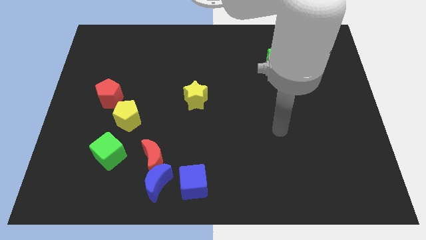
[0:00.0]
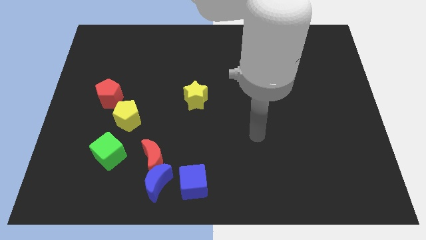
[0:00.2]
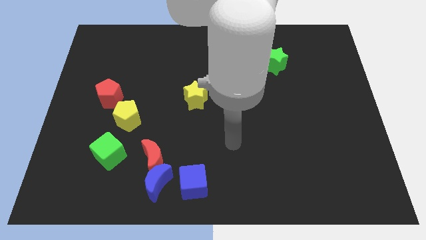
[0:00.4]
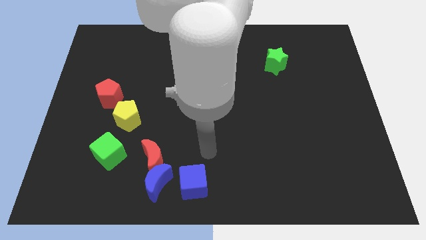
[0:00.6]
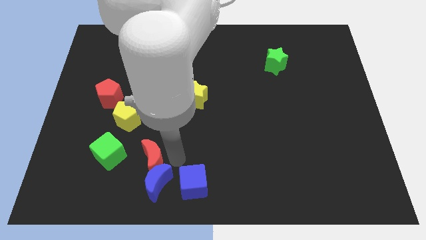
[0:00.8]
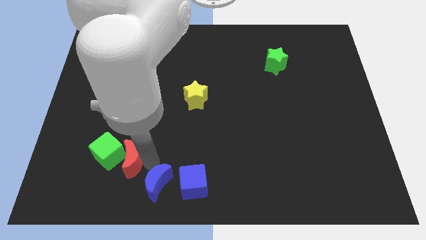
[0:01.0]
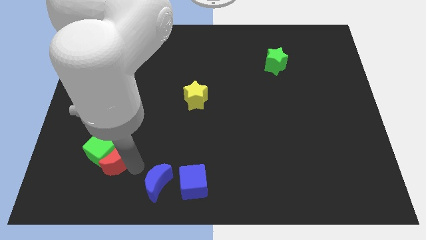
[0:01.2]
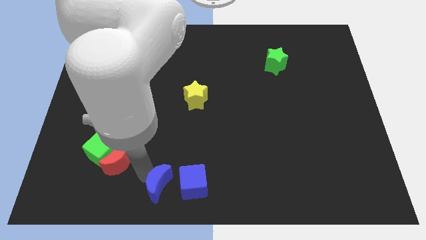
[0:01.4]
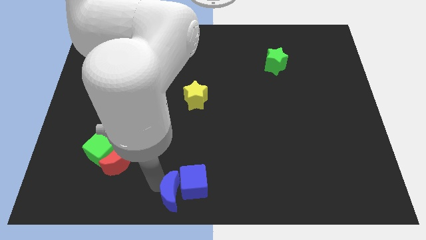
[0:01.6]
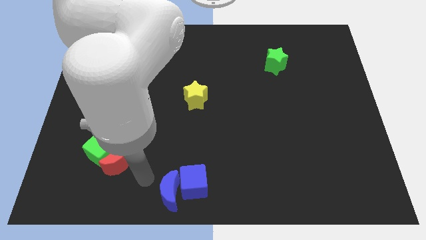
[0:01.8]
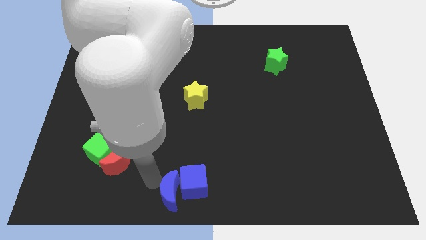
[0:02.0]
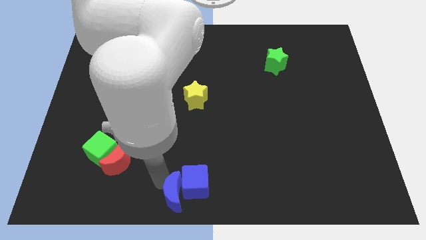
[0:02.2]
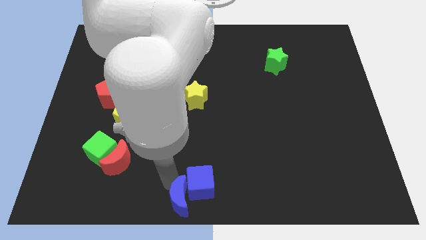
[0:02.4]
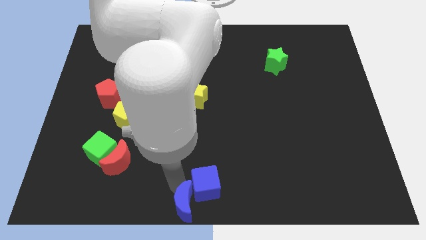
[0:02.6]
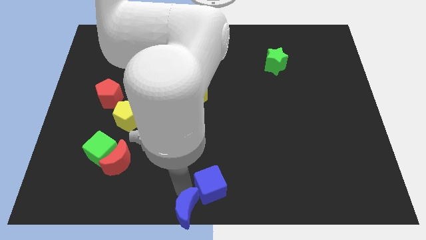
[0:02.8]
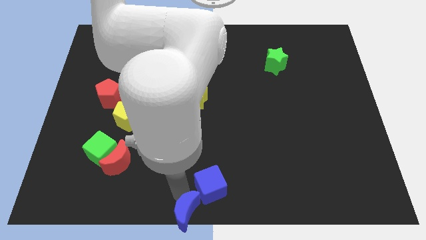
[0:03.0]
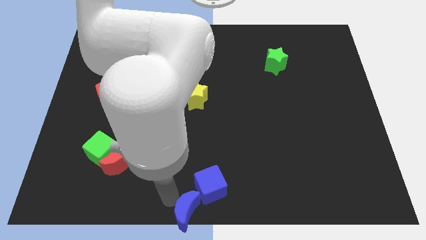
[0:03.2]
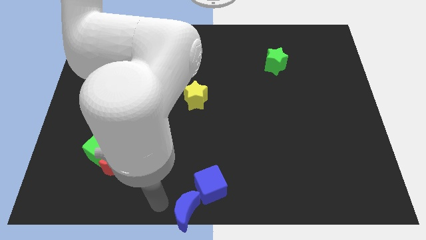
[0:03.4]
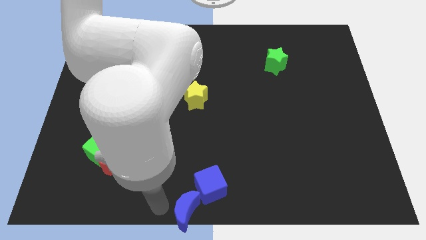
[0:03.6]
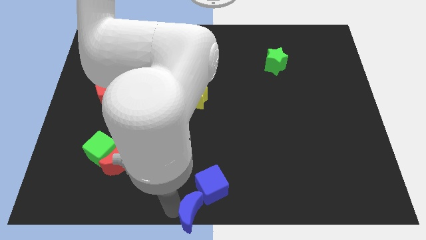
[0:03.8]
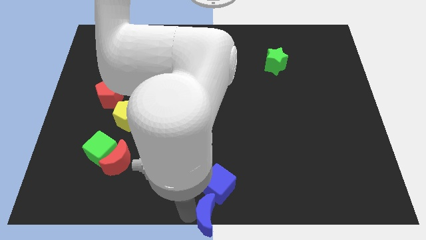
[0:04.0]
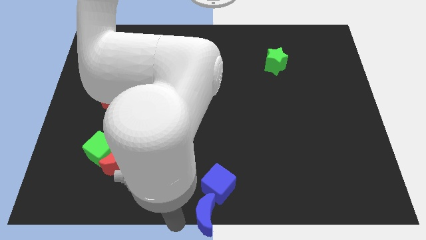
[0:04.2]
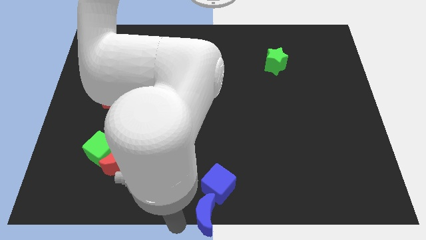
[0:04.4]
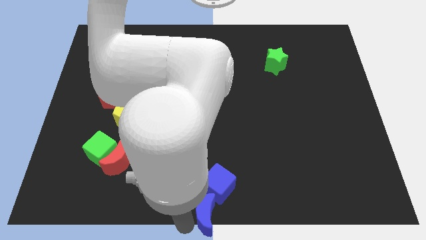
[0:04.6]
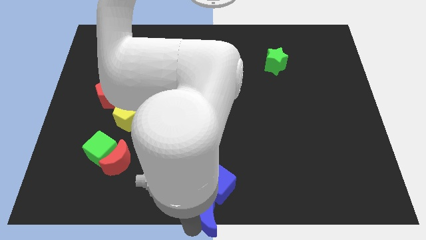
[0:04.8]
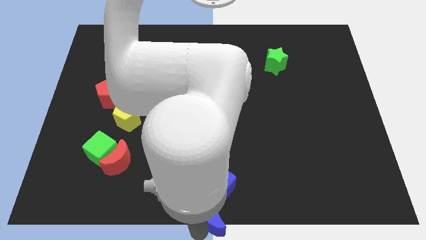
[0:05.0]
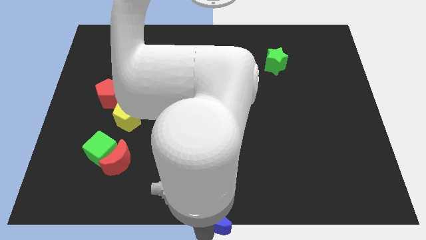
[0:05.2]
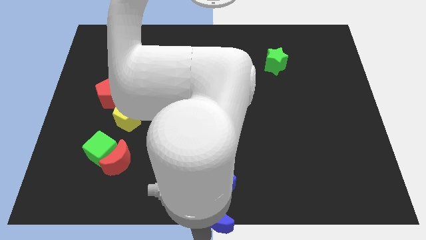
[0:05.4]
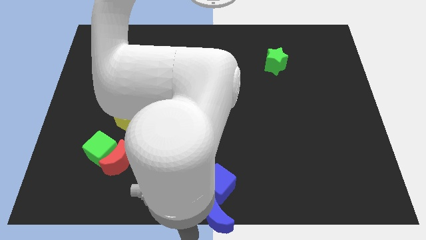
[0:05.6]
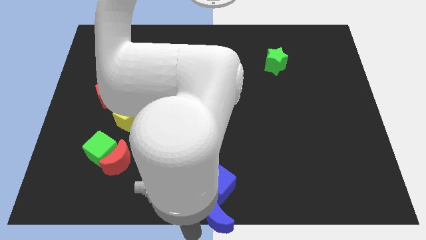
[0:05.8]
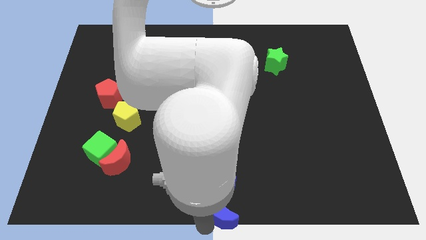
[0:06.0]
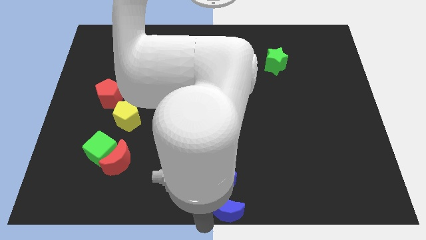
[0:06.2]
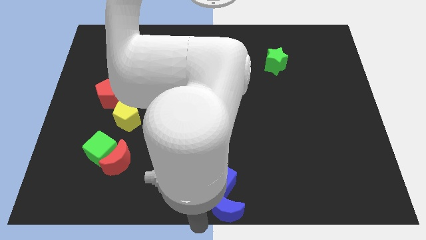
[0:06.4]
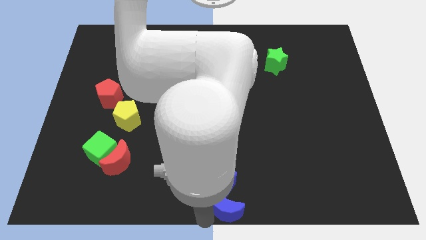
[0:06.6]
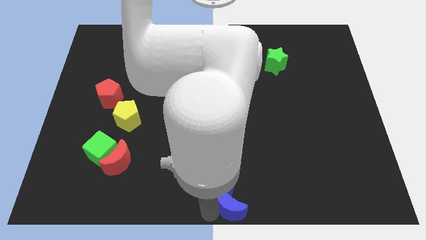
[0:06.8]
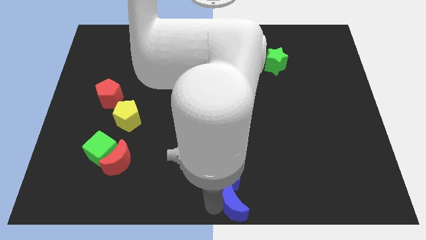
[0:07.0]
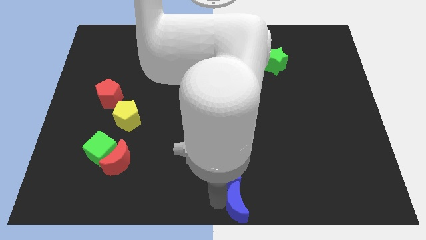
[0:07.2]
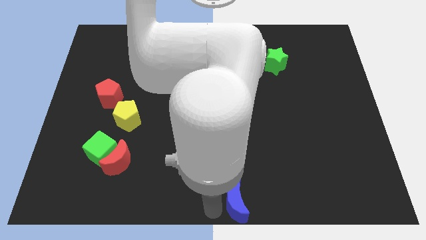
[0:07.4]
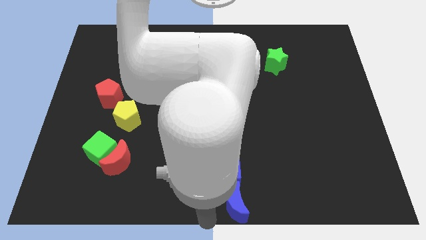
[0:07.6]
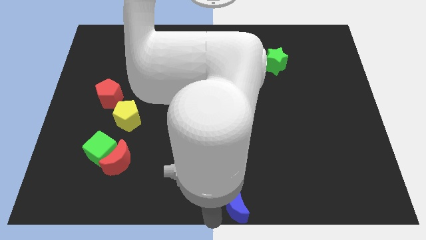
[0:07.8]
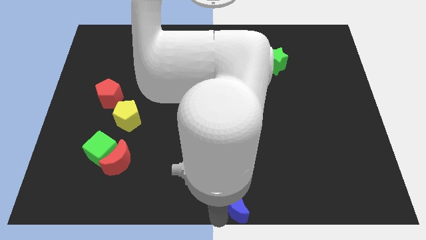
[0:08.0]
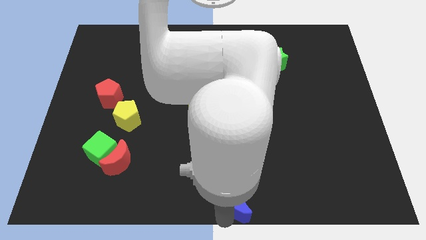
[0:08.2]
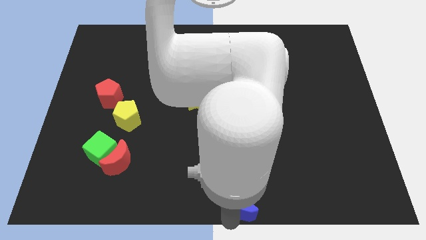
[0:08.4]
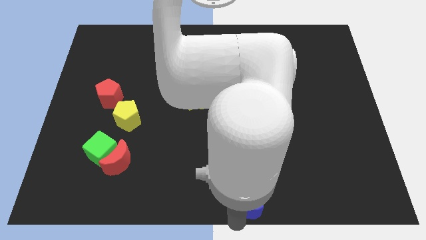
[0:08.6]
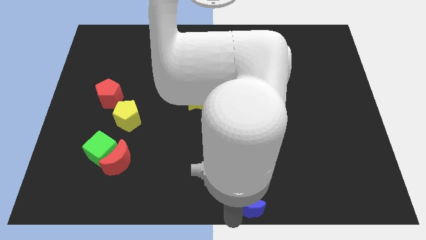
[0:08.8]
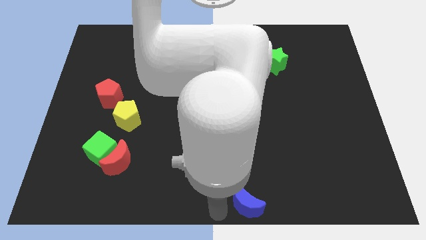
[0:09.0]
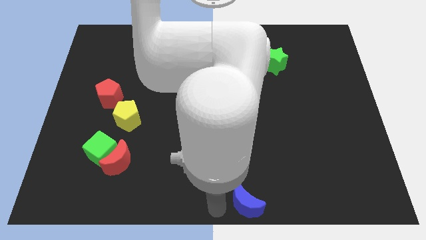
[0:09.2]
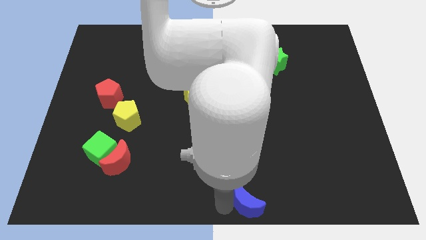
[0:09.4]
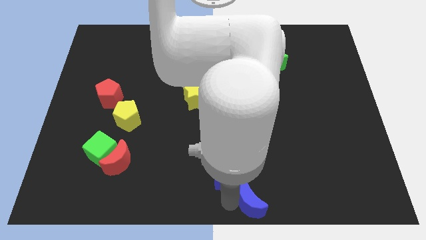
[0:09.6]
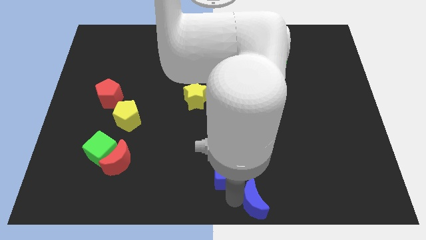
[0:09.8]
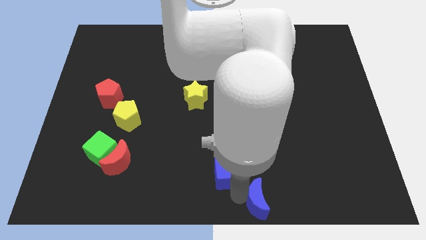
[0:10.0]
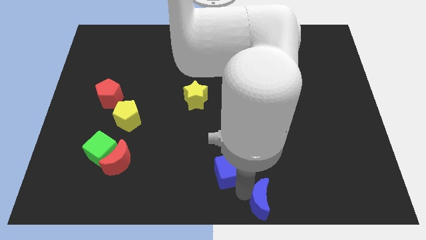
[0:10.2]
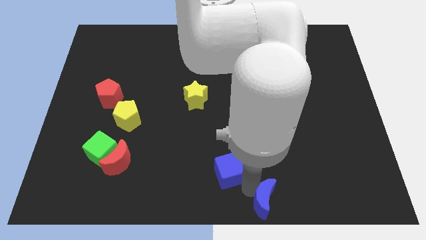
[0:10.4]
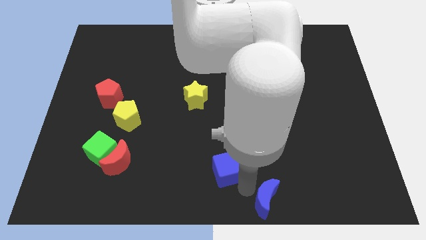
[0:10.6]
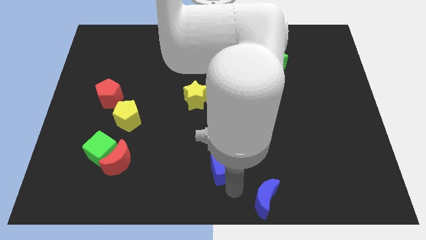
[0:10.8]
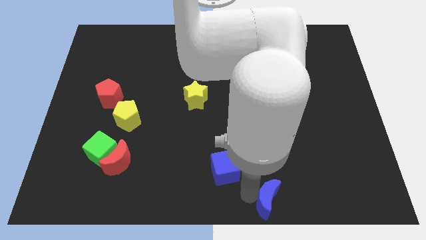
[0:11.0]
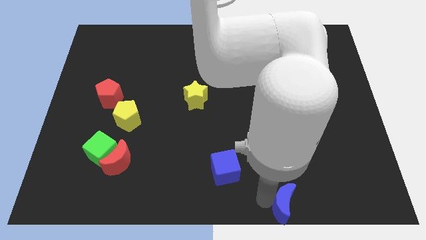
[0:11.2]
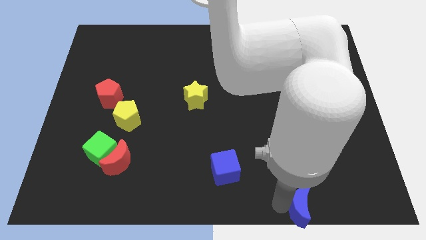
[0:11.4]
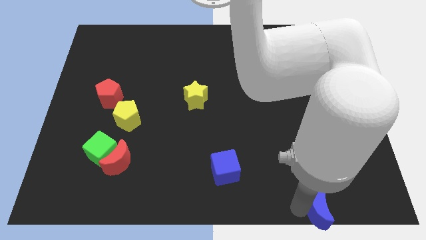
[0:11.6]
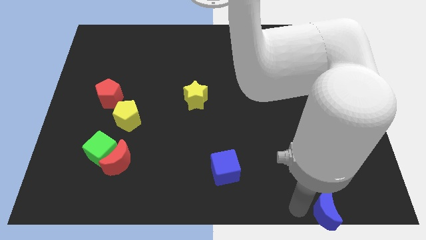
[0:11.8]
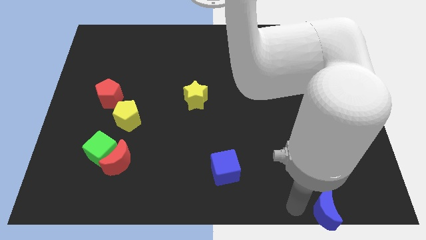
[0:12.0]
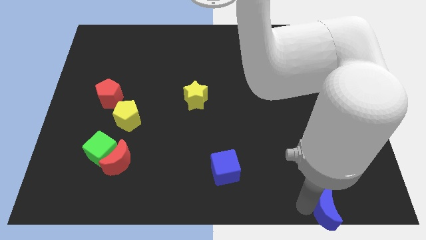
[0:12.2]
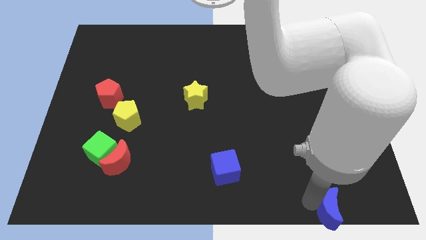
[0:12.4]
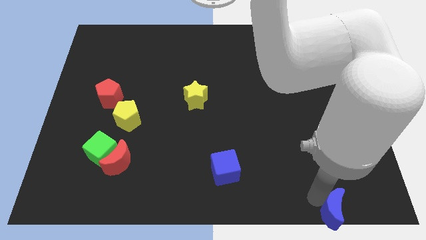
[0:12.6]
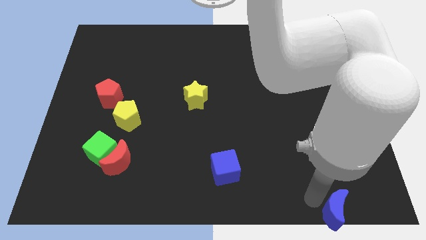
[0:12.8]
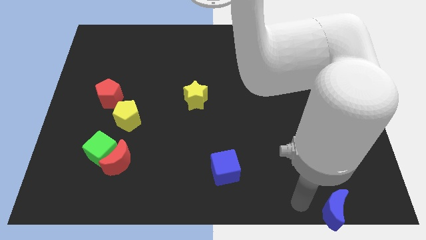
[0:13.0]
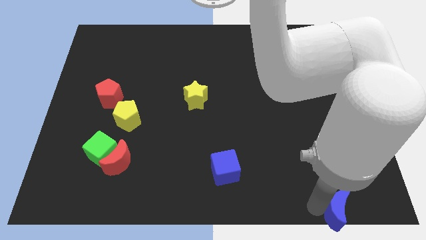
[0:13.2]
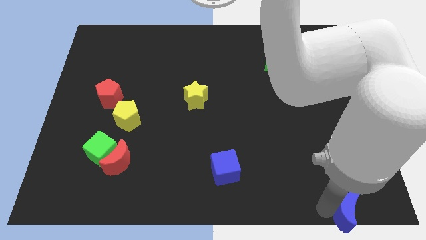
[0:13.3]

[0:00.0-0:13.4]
push the blue moon to the bottom right
